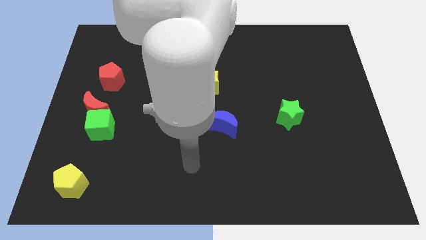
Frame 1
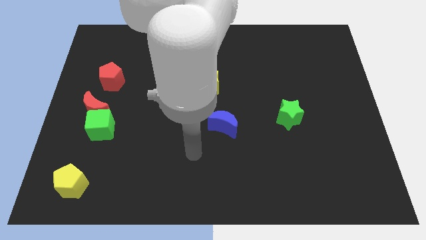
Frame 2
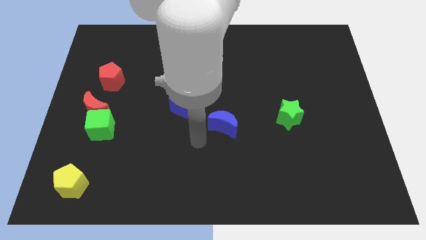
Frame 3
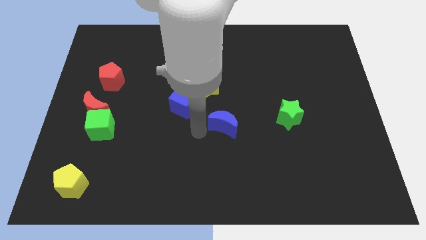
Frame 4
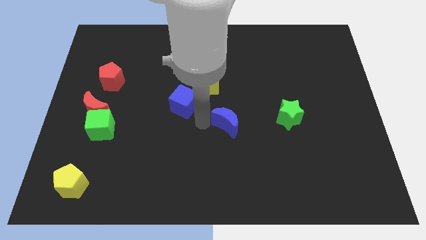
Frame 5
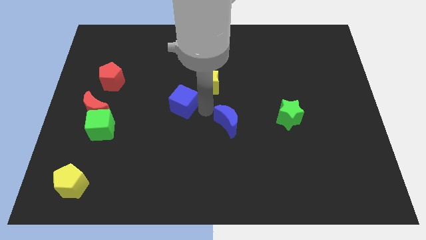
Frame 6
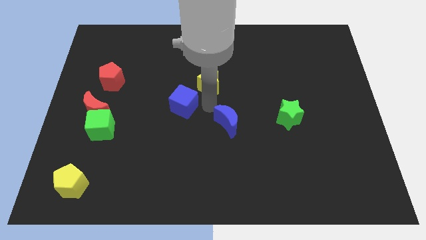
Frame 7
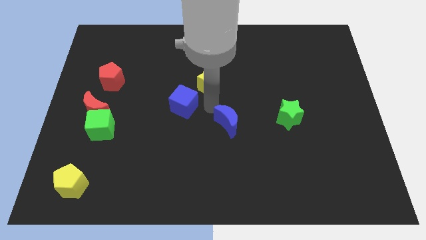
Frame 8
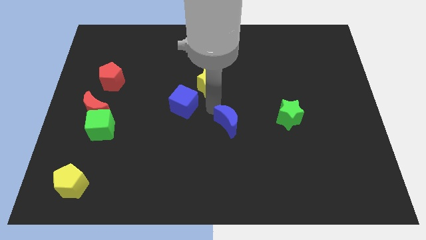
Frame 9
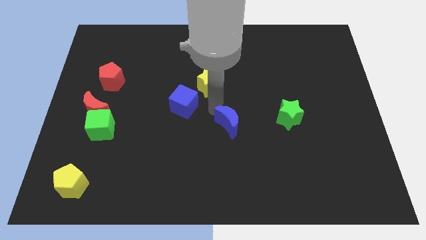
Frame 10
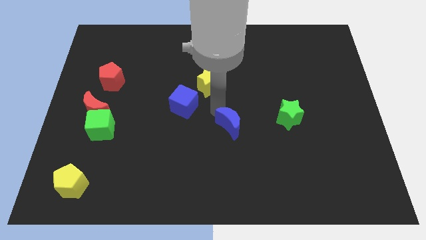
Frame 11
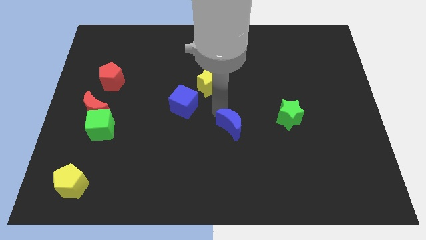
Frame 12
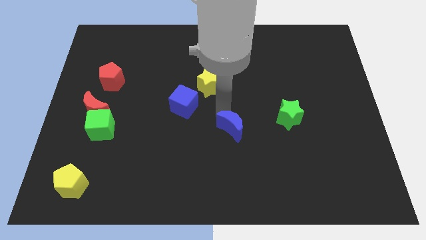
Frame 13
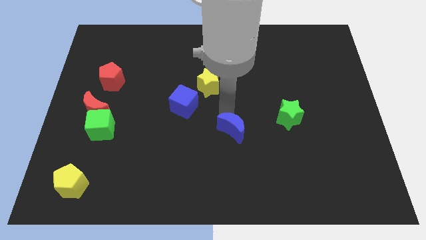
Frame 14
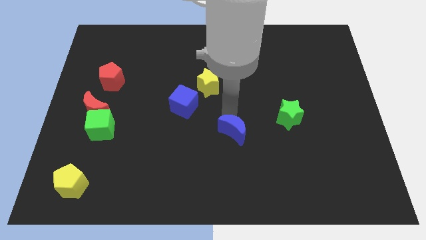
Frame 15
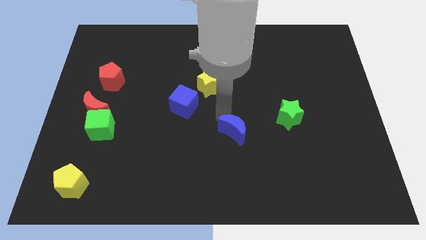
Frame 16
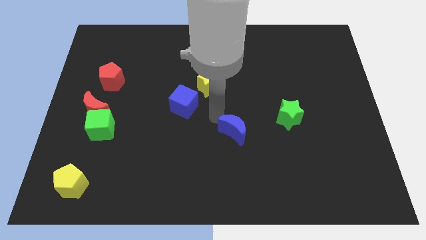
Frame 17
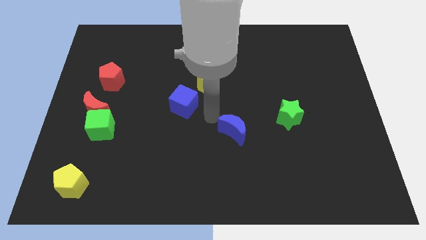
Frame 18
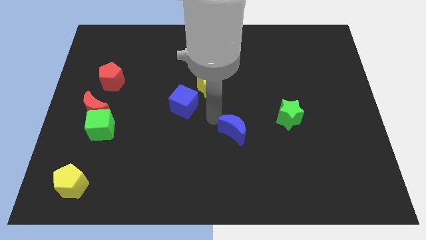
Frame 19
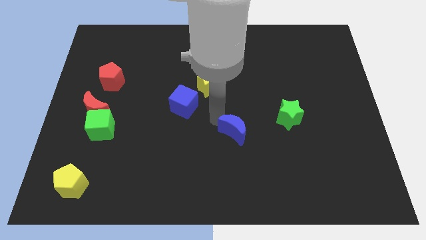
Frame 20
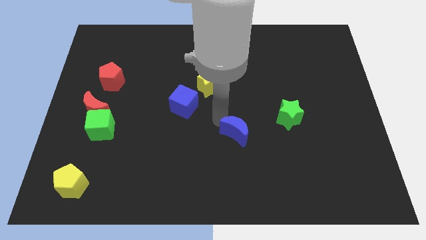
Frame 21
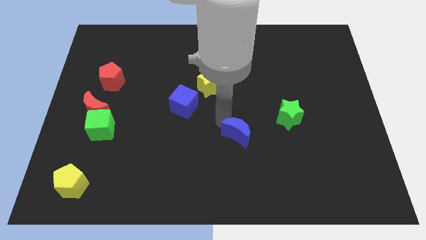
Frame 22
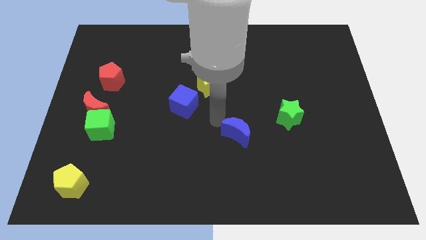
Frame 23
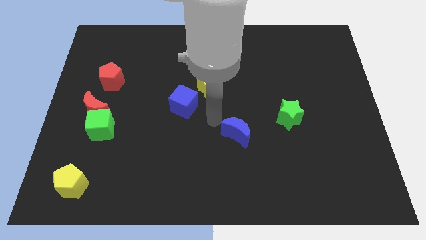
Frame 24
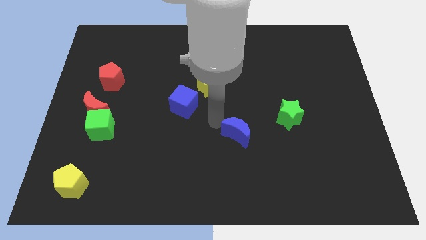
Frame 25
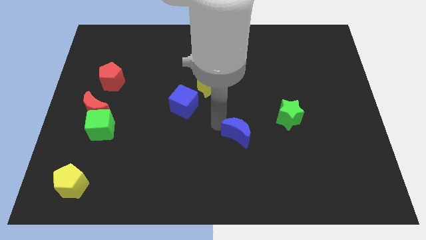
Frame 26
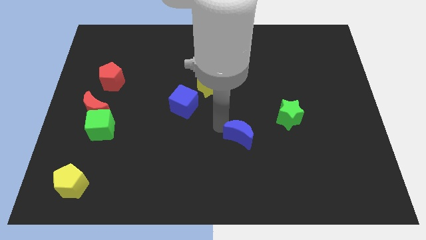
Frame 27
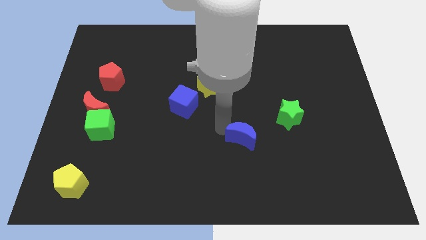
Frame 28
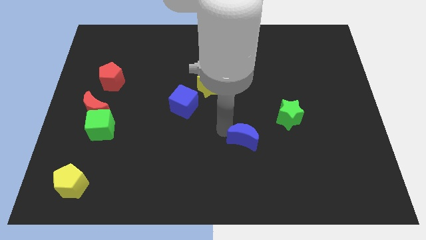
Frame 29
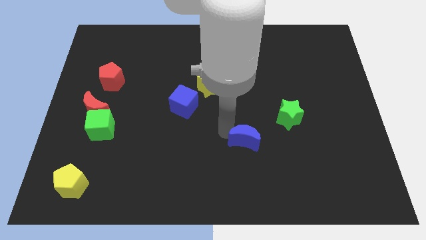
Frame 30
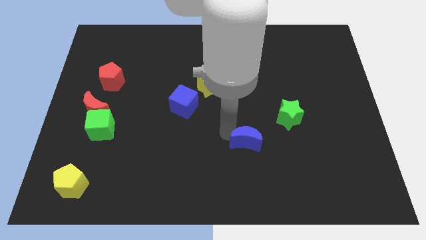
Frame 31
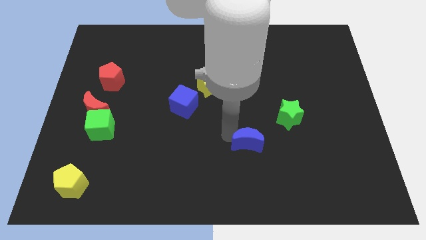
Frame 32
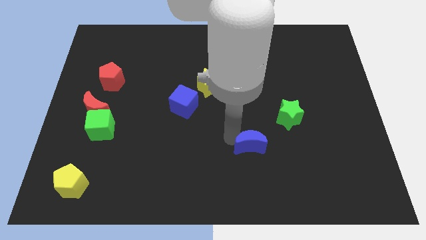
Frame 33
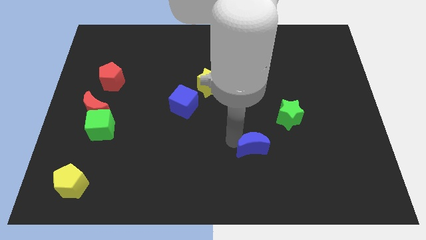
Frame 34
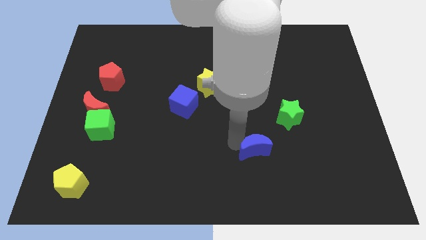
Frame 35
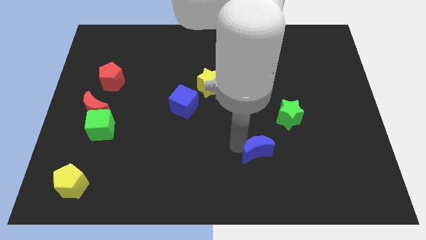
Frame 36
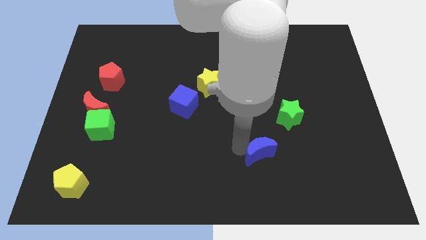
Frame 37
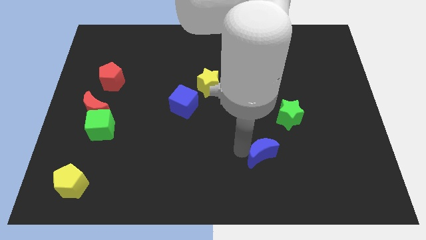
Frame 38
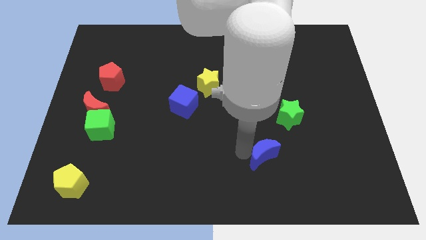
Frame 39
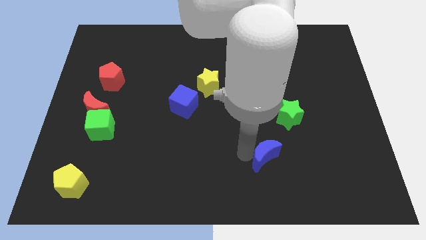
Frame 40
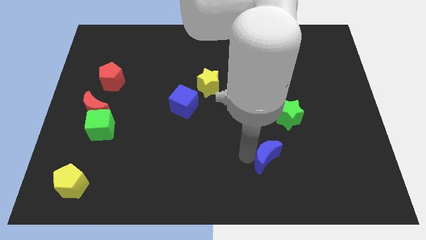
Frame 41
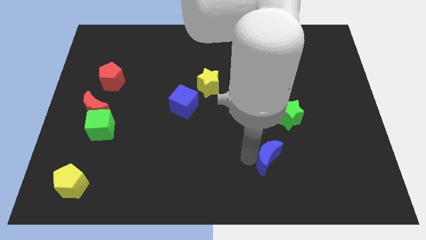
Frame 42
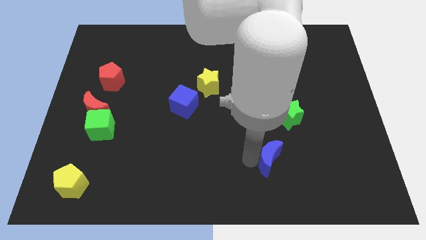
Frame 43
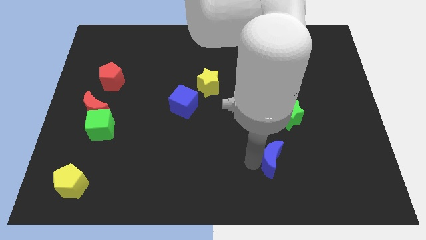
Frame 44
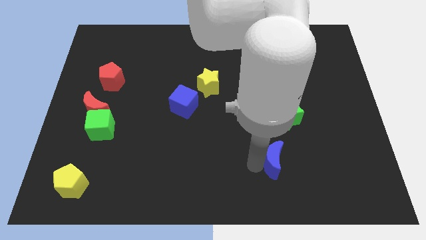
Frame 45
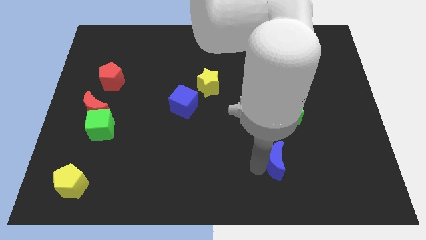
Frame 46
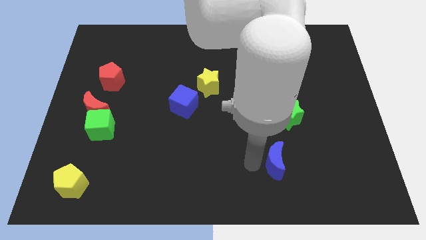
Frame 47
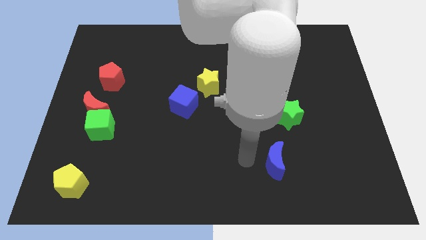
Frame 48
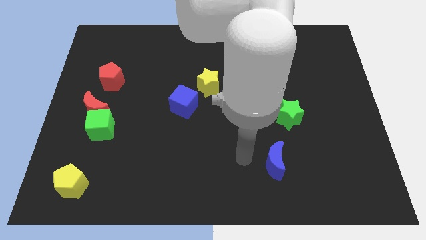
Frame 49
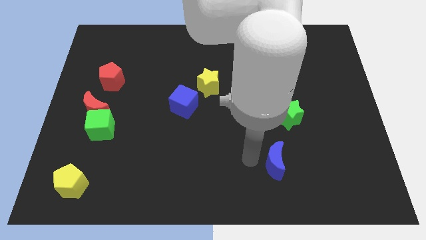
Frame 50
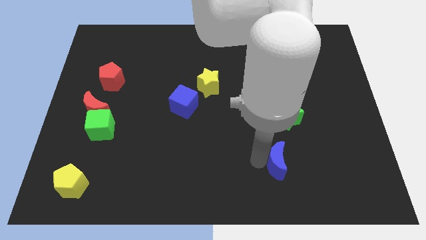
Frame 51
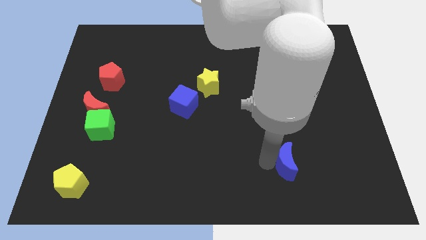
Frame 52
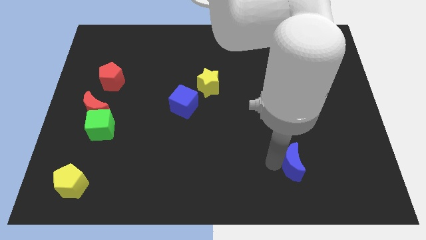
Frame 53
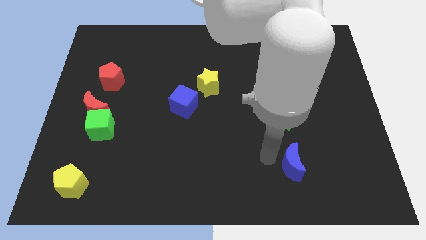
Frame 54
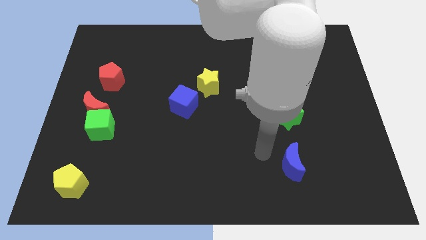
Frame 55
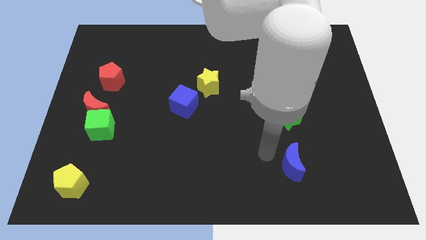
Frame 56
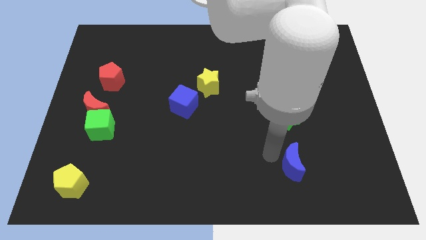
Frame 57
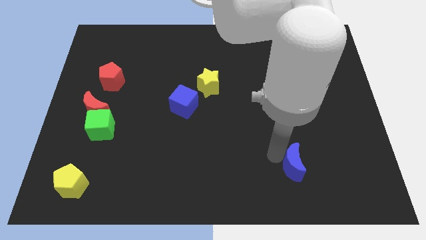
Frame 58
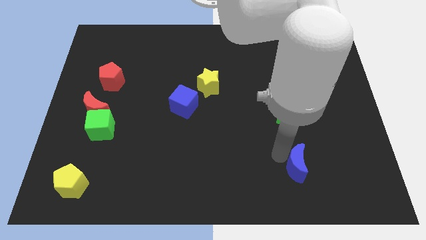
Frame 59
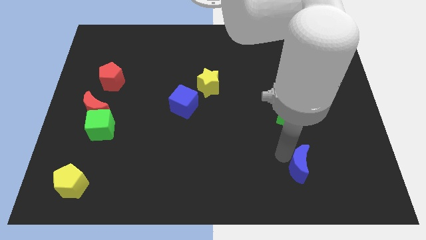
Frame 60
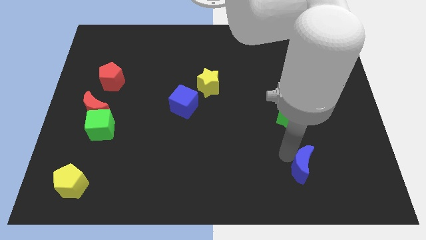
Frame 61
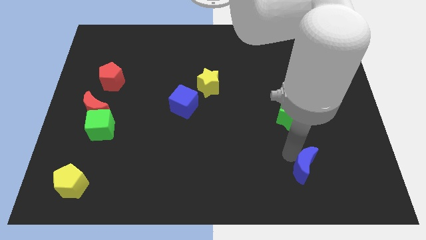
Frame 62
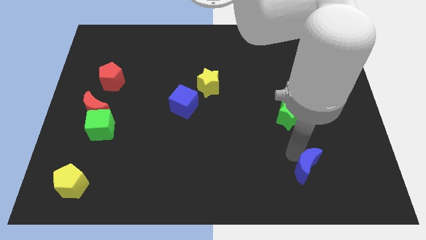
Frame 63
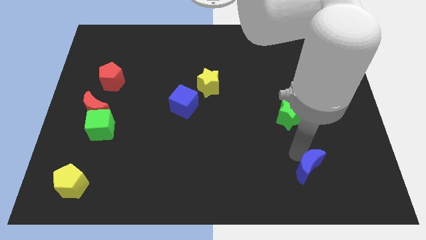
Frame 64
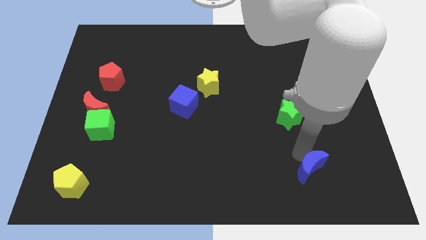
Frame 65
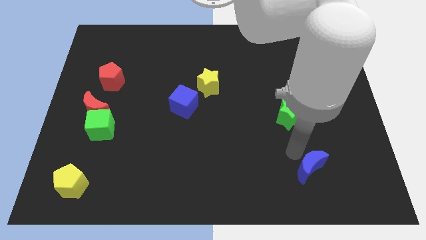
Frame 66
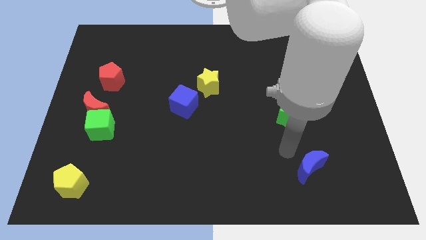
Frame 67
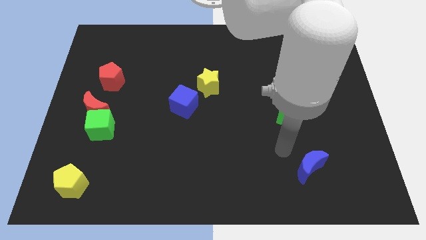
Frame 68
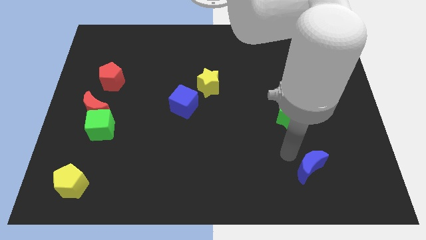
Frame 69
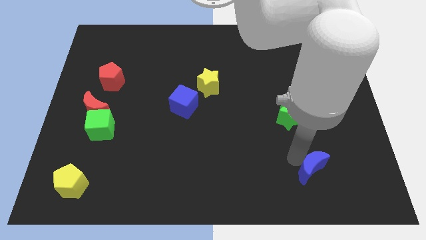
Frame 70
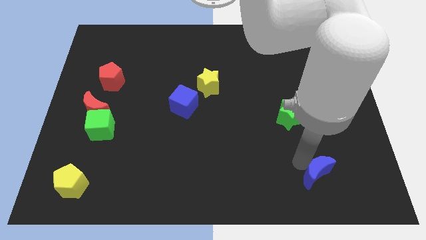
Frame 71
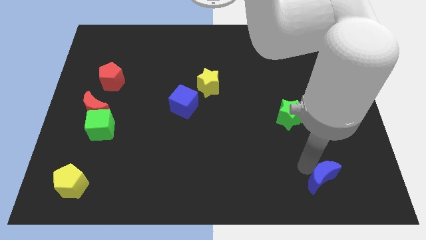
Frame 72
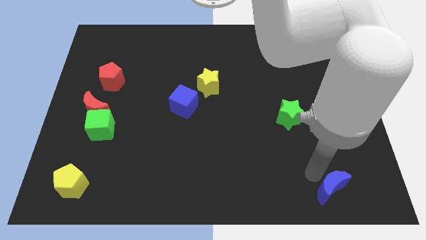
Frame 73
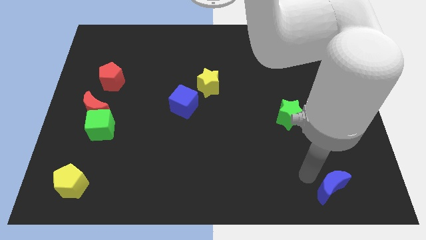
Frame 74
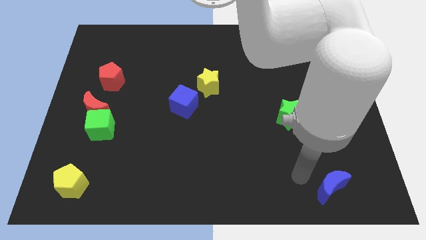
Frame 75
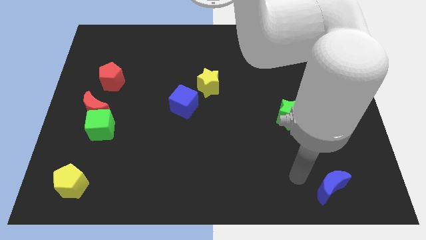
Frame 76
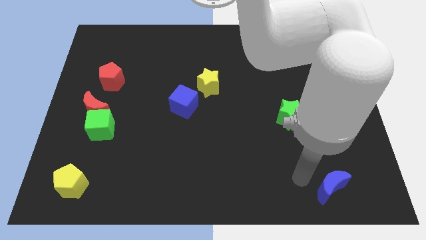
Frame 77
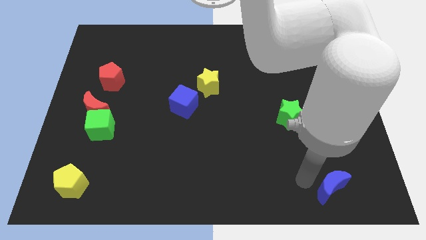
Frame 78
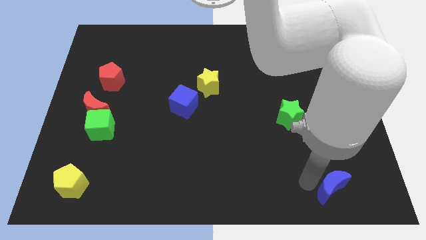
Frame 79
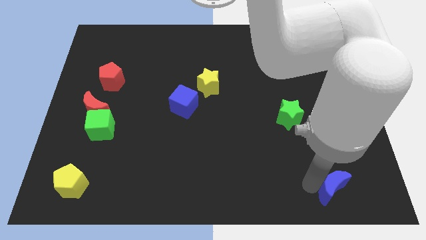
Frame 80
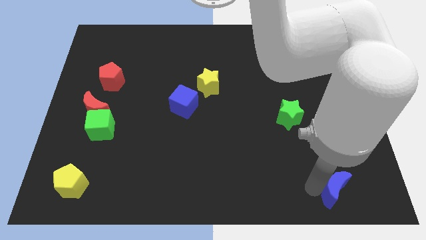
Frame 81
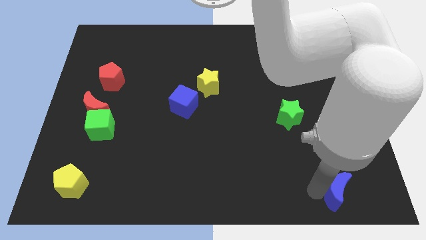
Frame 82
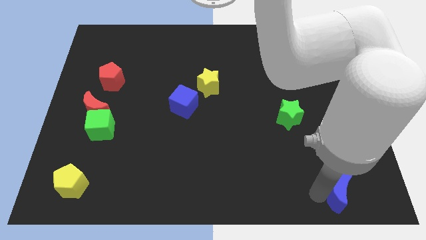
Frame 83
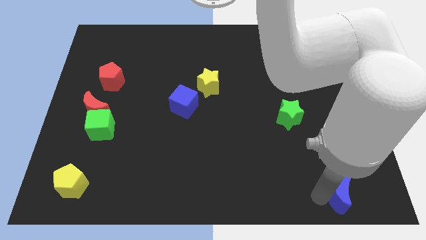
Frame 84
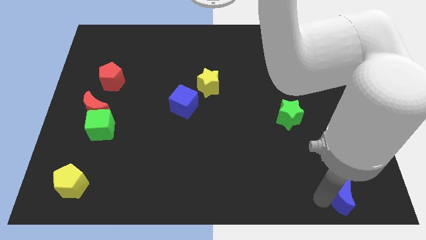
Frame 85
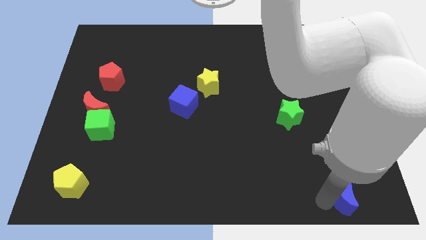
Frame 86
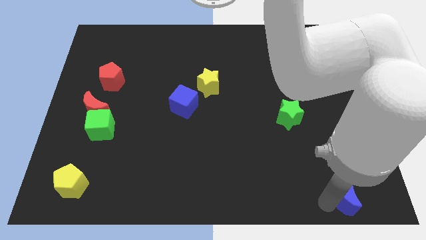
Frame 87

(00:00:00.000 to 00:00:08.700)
put the blue moon to the lower right corner
